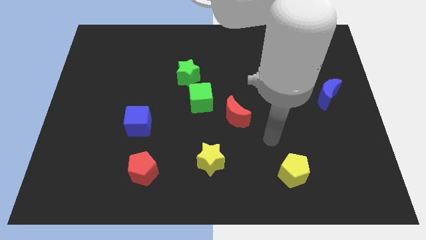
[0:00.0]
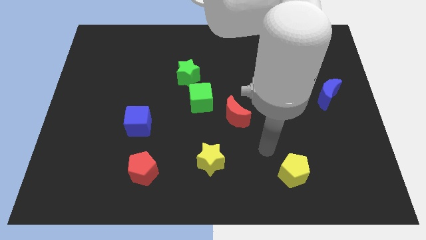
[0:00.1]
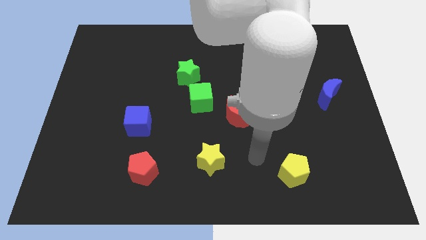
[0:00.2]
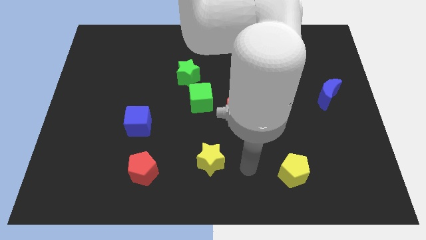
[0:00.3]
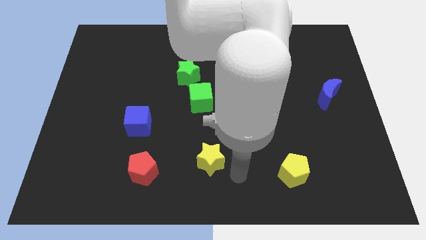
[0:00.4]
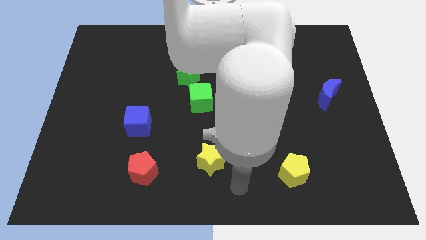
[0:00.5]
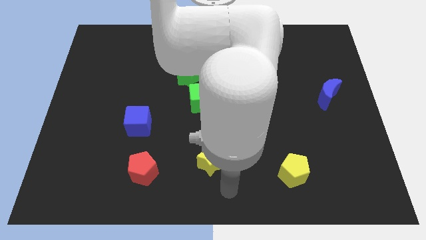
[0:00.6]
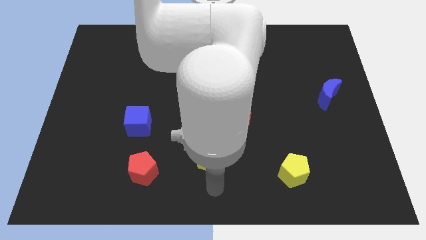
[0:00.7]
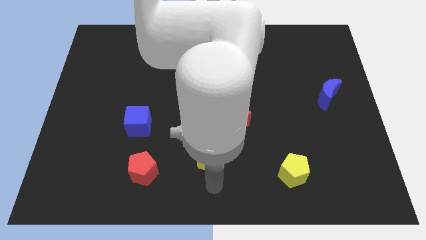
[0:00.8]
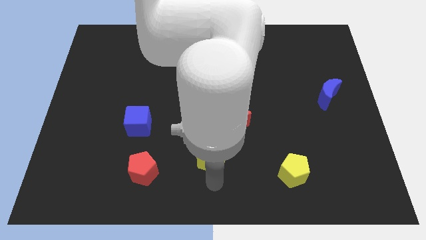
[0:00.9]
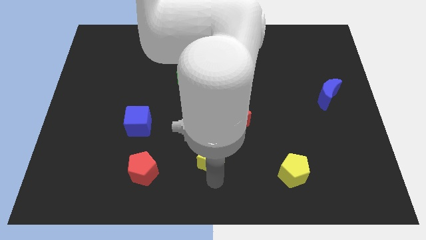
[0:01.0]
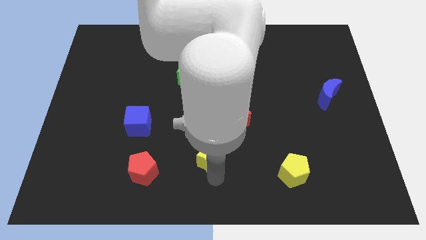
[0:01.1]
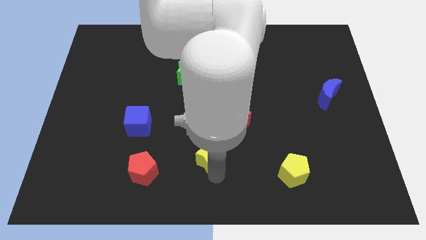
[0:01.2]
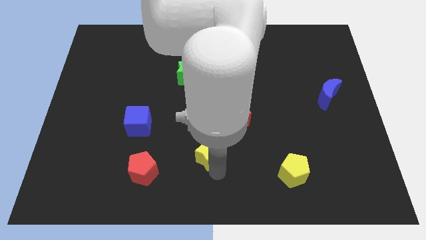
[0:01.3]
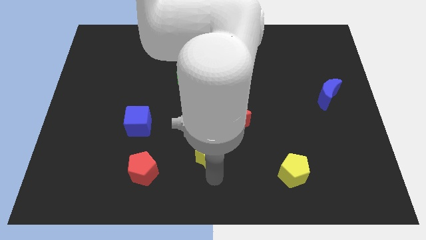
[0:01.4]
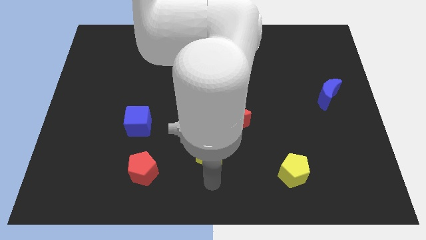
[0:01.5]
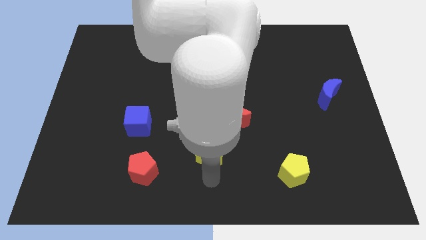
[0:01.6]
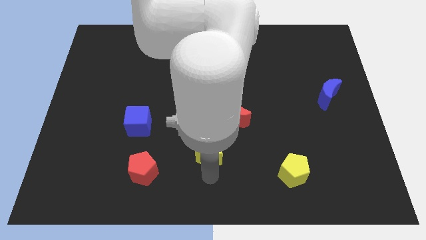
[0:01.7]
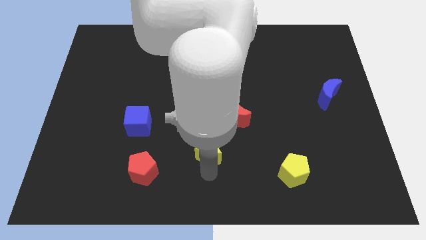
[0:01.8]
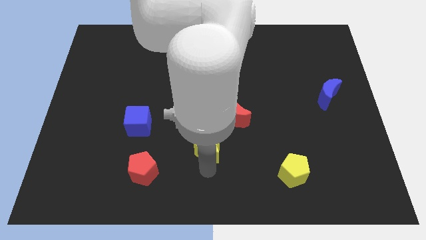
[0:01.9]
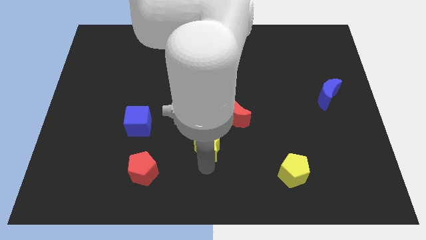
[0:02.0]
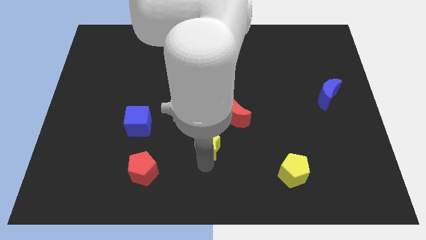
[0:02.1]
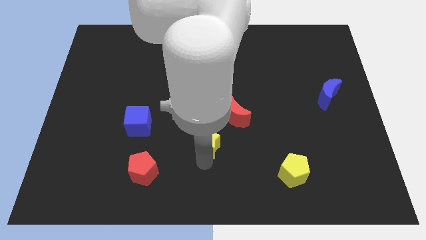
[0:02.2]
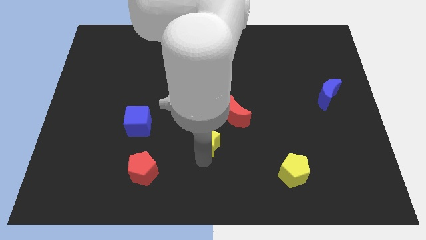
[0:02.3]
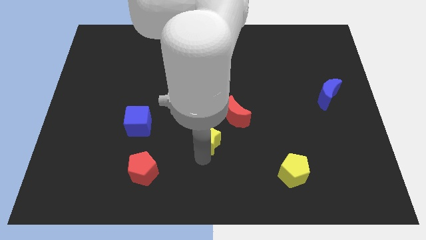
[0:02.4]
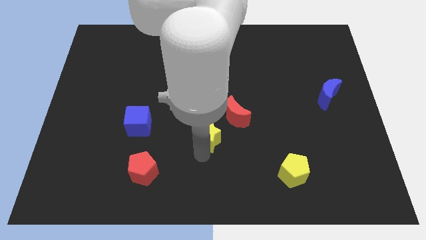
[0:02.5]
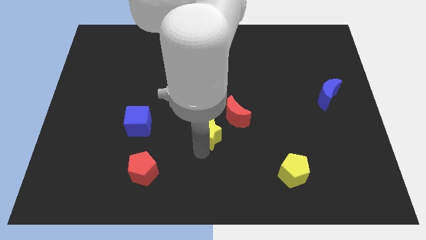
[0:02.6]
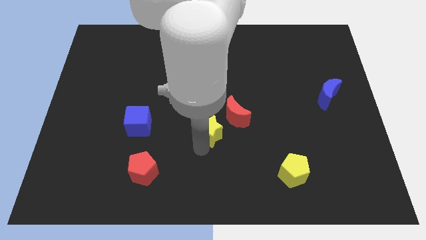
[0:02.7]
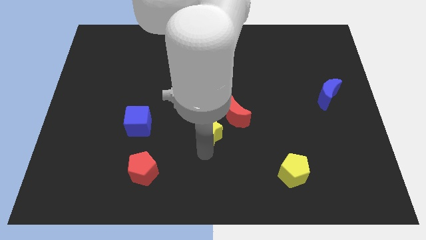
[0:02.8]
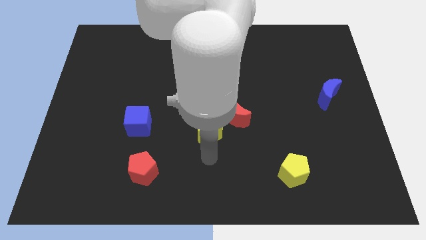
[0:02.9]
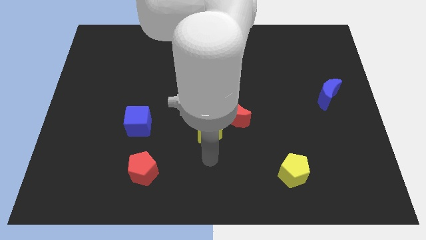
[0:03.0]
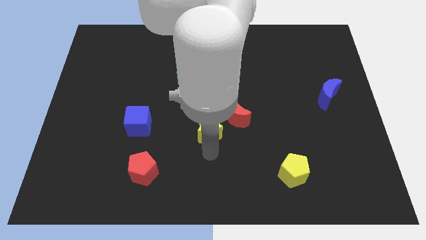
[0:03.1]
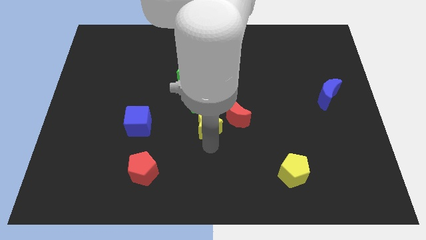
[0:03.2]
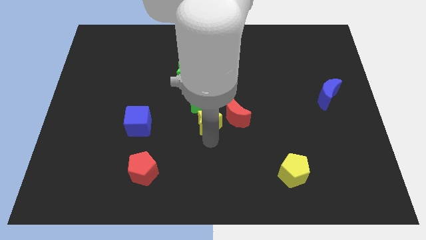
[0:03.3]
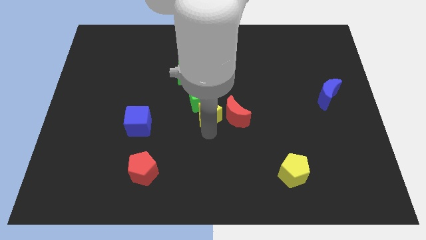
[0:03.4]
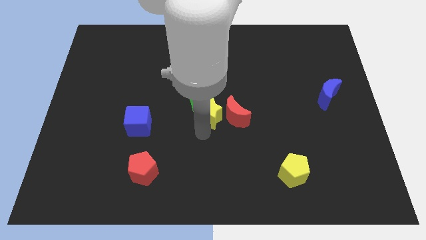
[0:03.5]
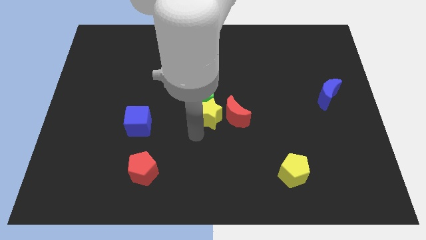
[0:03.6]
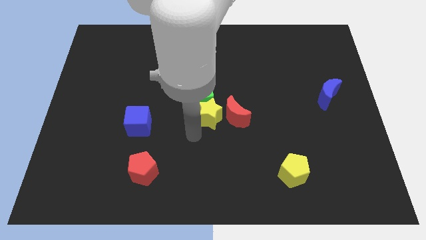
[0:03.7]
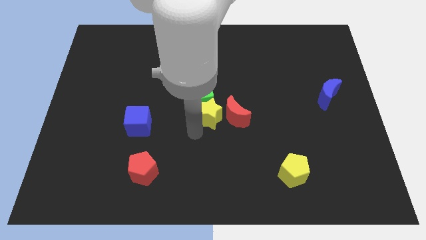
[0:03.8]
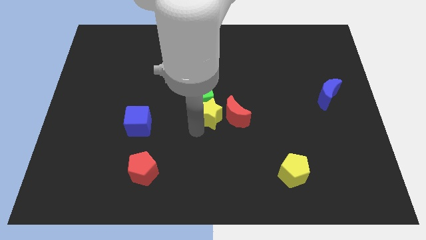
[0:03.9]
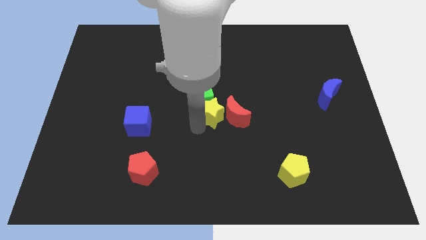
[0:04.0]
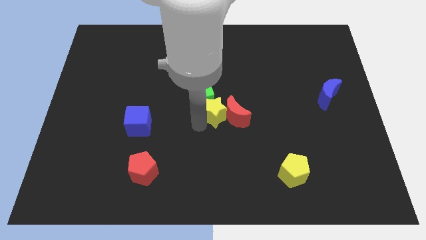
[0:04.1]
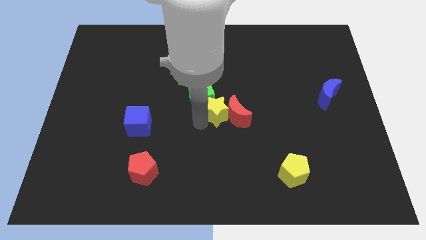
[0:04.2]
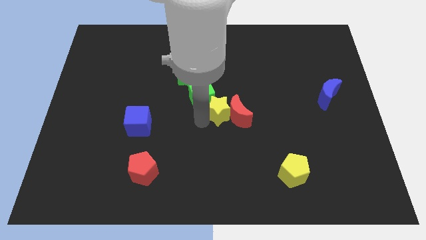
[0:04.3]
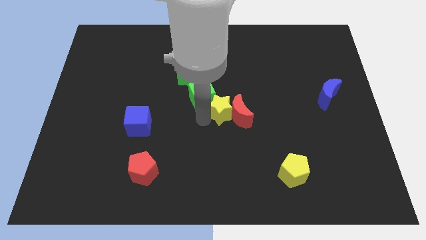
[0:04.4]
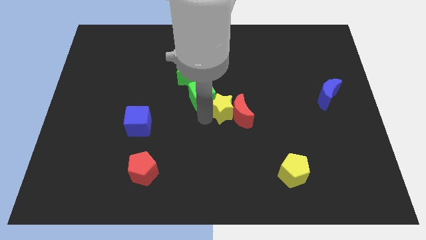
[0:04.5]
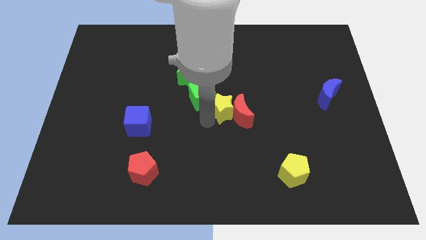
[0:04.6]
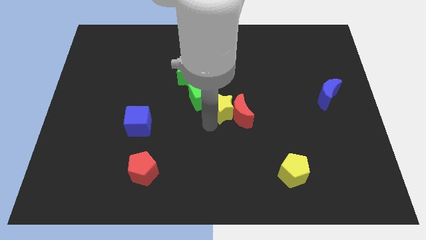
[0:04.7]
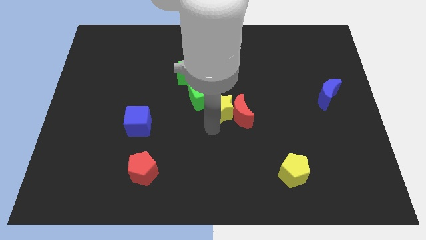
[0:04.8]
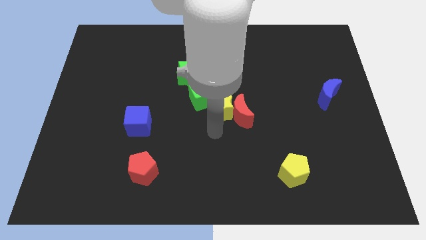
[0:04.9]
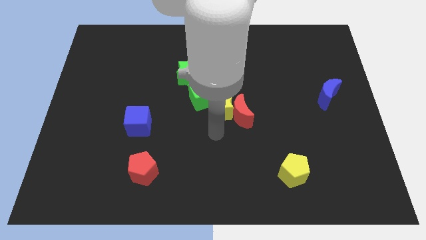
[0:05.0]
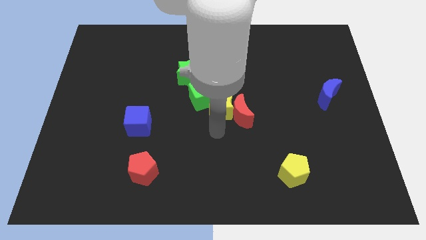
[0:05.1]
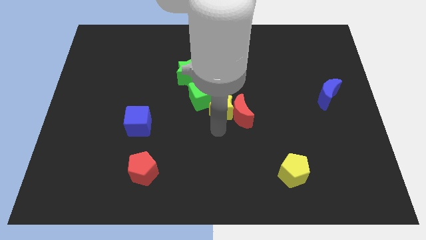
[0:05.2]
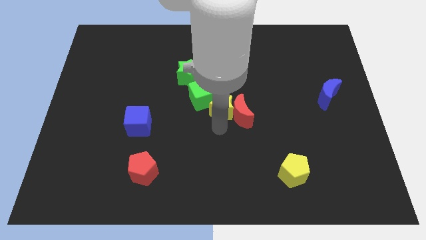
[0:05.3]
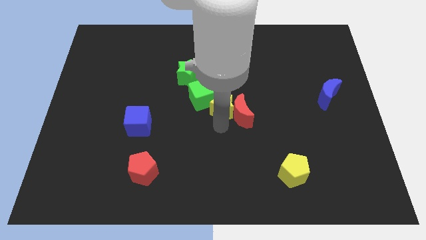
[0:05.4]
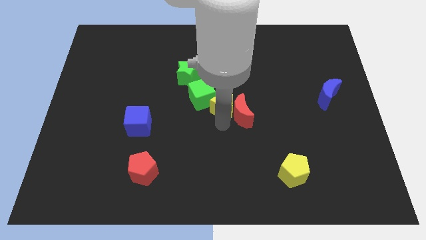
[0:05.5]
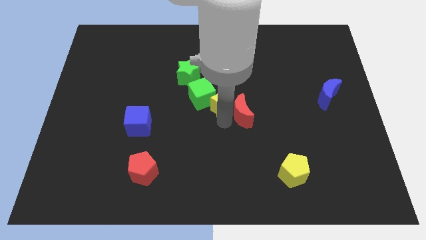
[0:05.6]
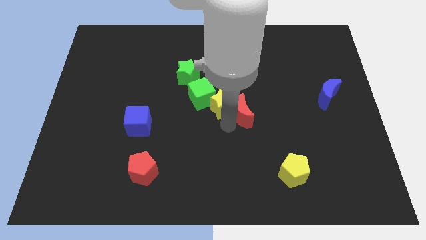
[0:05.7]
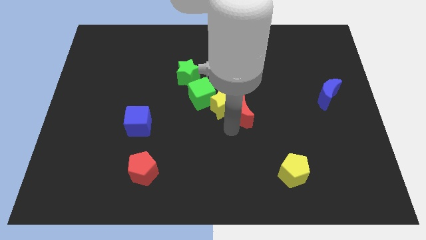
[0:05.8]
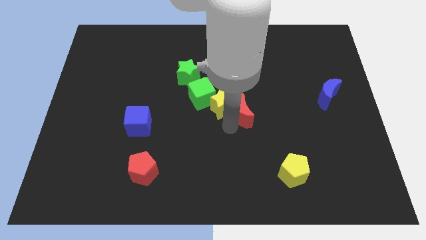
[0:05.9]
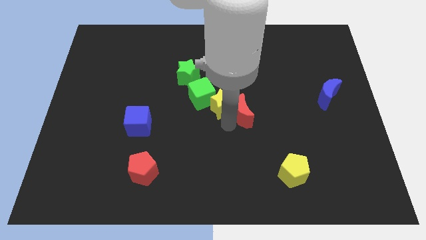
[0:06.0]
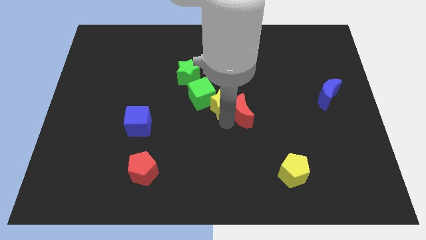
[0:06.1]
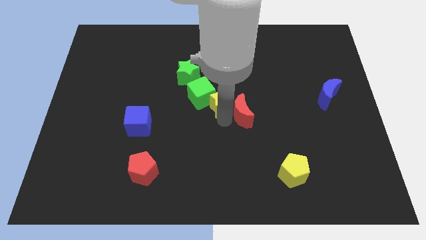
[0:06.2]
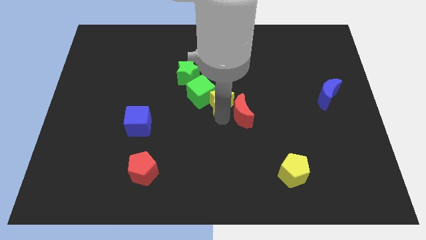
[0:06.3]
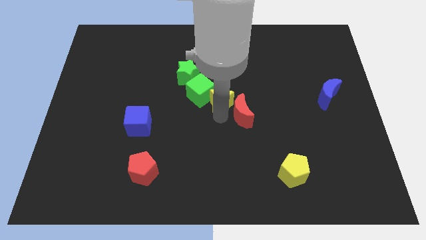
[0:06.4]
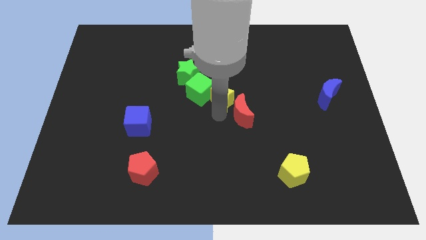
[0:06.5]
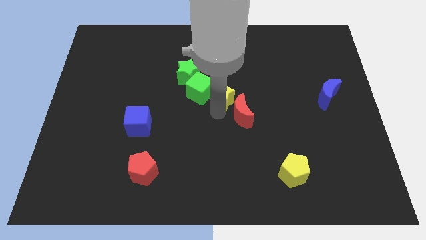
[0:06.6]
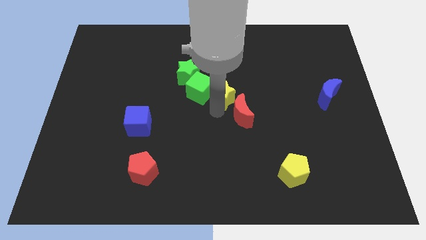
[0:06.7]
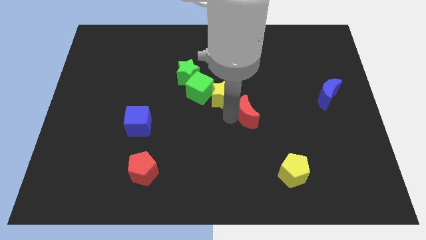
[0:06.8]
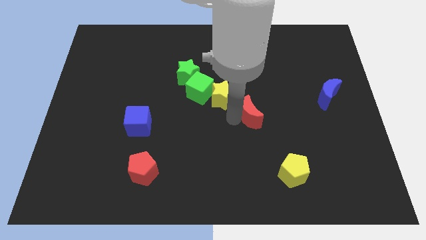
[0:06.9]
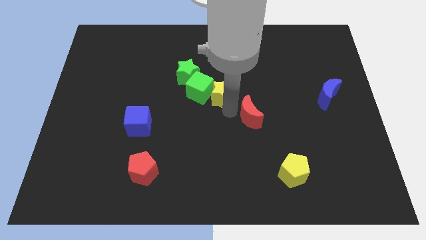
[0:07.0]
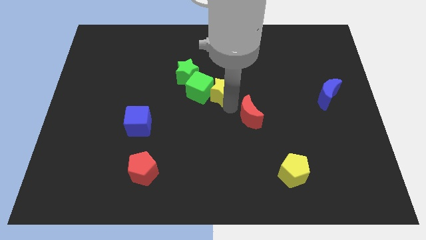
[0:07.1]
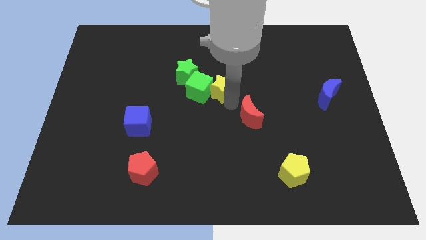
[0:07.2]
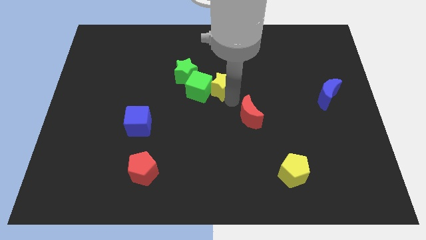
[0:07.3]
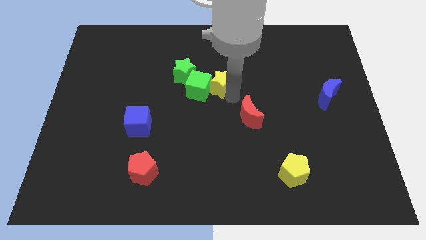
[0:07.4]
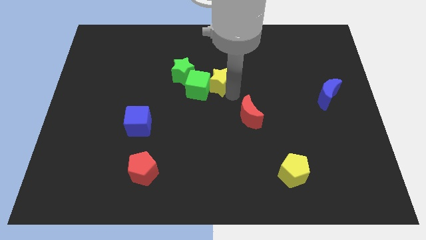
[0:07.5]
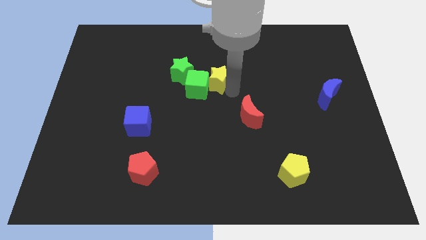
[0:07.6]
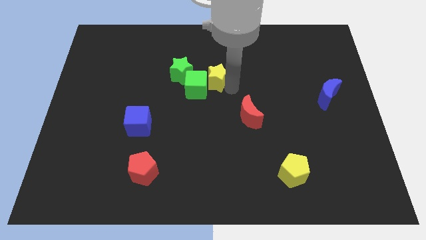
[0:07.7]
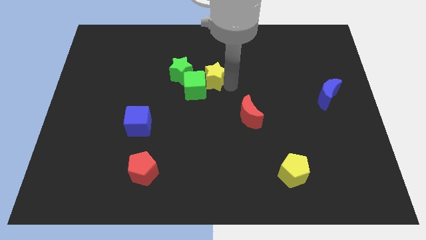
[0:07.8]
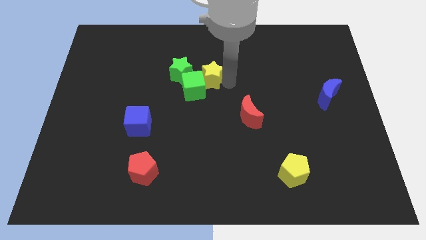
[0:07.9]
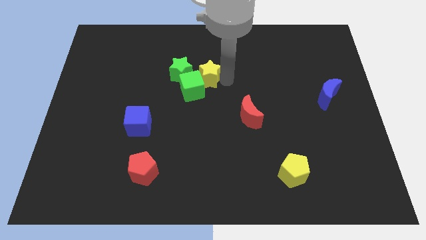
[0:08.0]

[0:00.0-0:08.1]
move the yellow star to the top of the green cube
